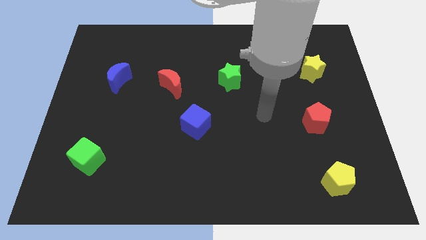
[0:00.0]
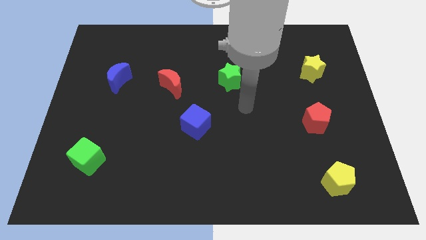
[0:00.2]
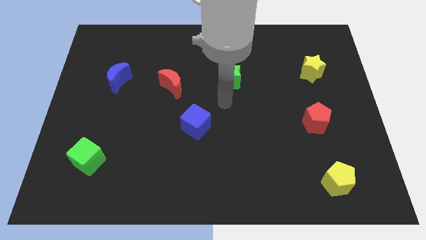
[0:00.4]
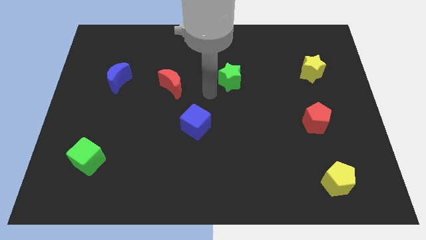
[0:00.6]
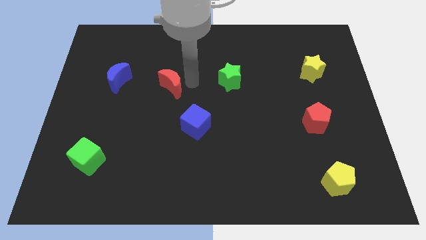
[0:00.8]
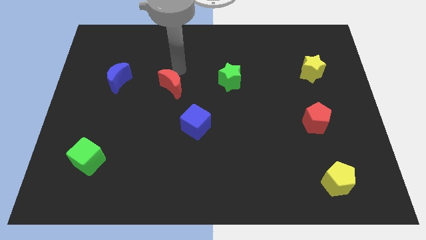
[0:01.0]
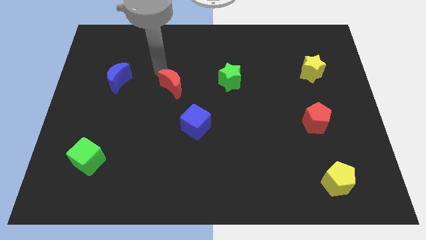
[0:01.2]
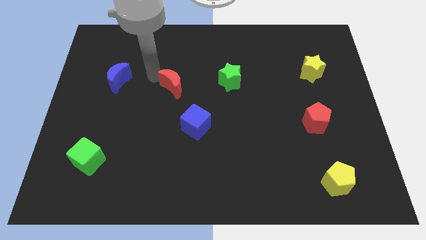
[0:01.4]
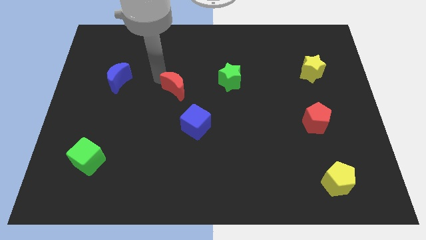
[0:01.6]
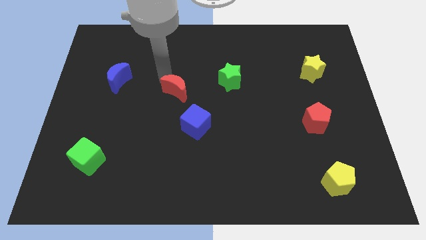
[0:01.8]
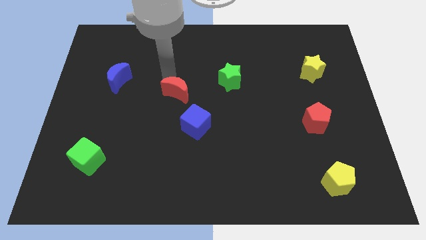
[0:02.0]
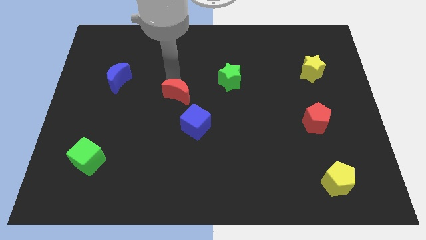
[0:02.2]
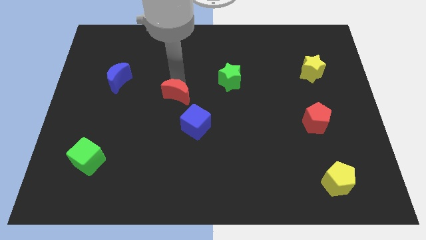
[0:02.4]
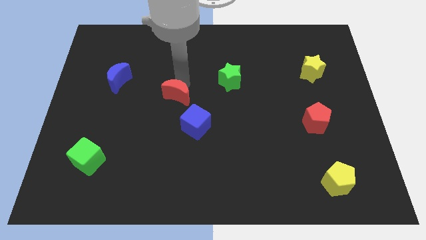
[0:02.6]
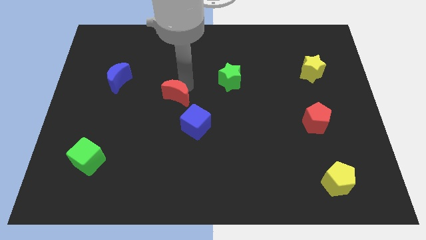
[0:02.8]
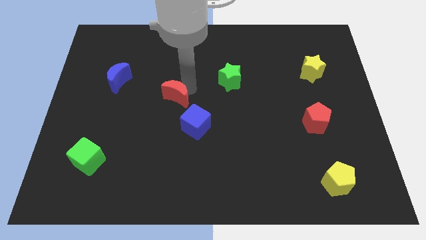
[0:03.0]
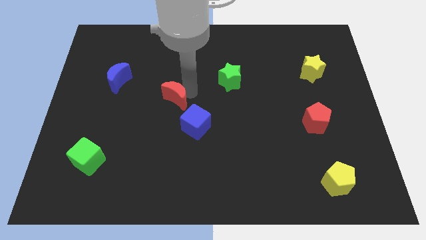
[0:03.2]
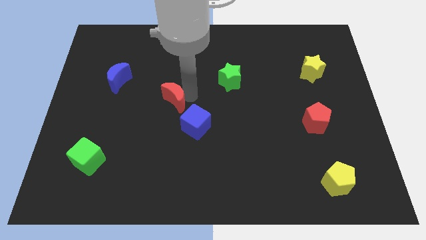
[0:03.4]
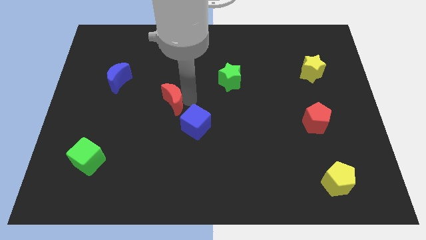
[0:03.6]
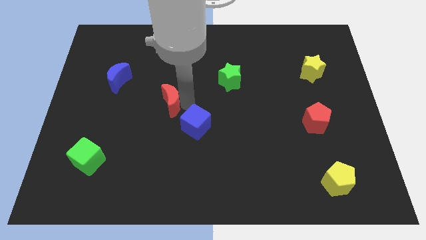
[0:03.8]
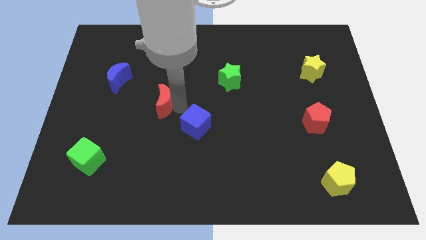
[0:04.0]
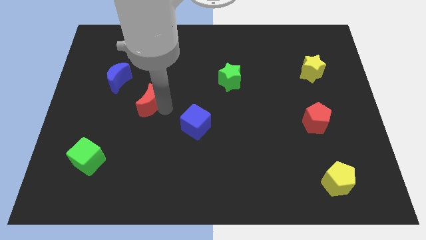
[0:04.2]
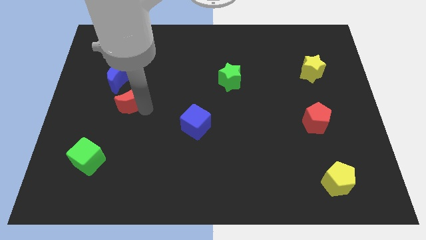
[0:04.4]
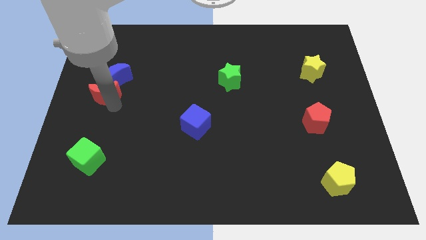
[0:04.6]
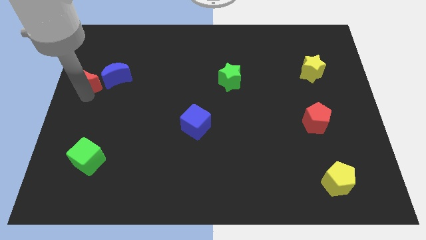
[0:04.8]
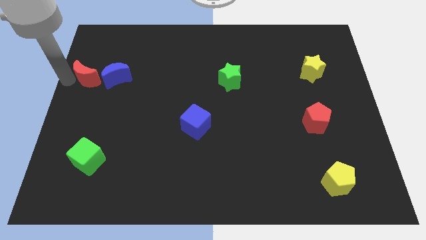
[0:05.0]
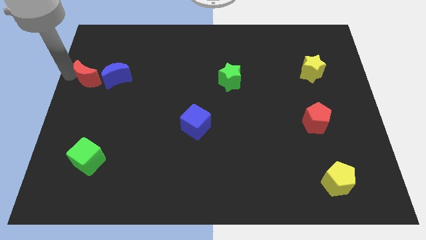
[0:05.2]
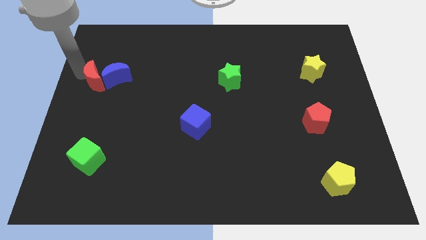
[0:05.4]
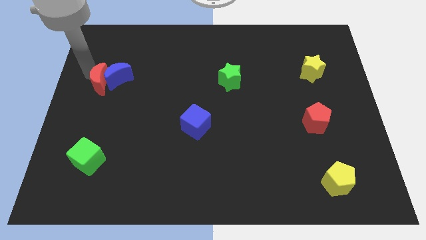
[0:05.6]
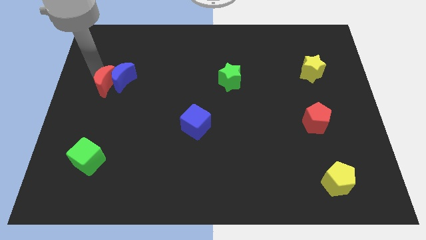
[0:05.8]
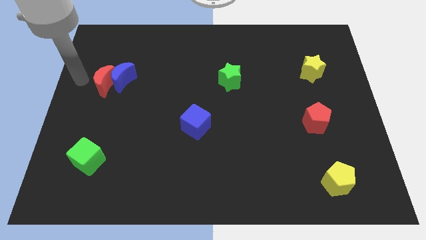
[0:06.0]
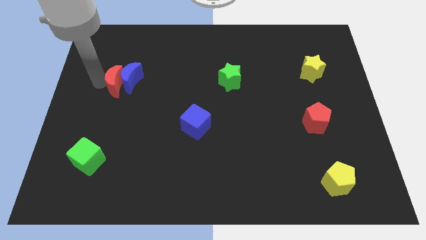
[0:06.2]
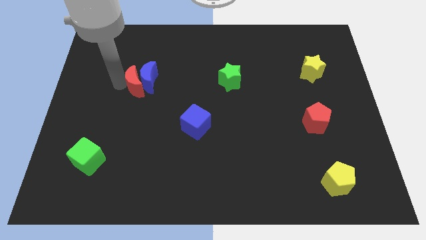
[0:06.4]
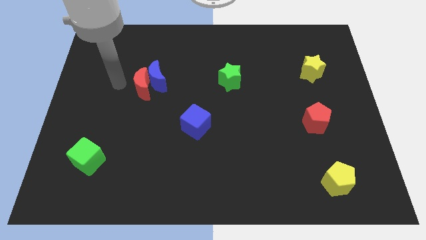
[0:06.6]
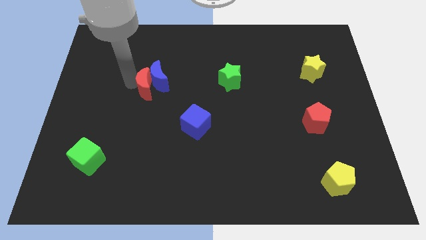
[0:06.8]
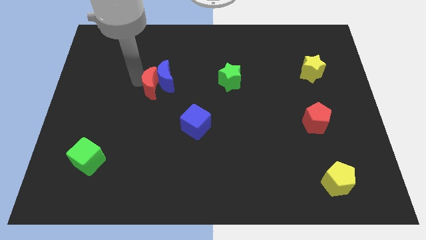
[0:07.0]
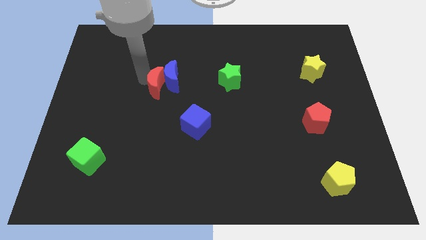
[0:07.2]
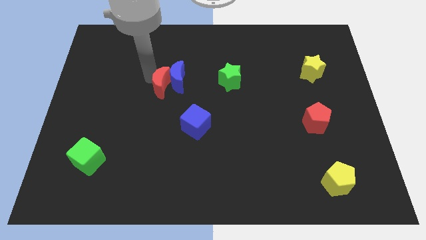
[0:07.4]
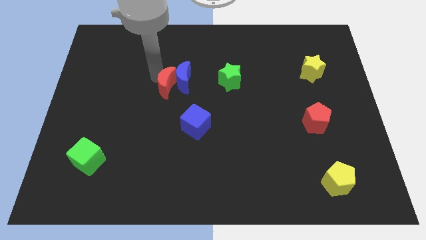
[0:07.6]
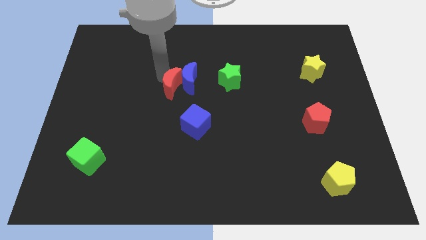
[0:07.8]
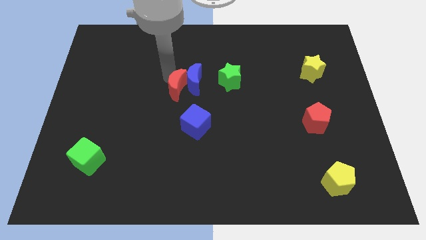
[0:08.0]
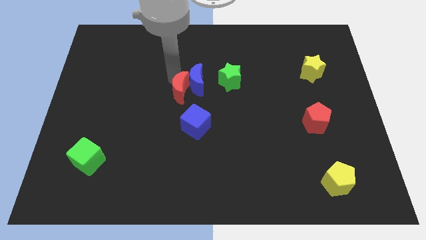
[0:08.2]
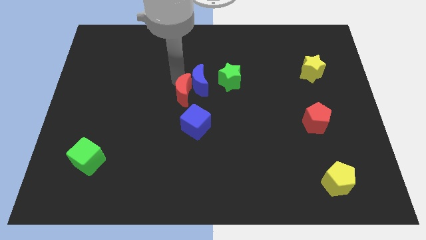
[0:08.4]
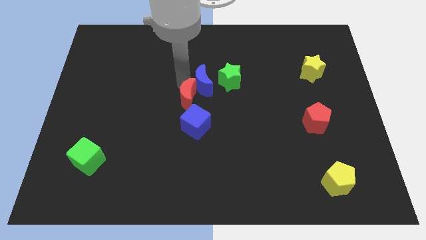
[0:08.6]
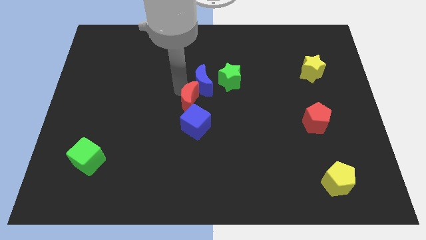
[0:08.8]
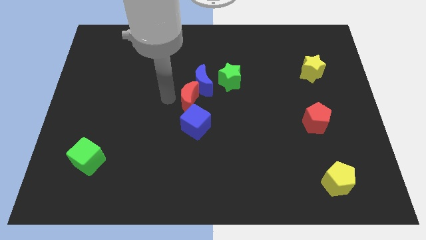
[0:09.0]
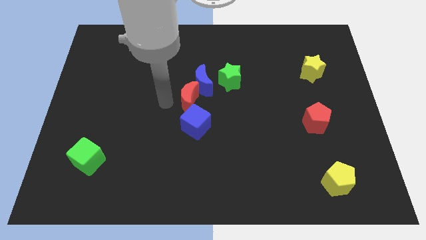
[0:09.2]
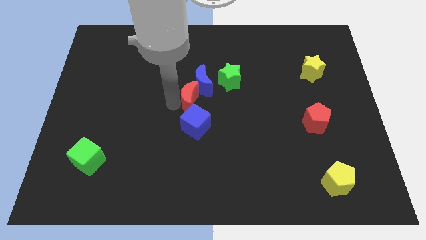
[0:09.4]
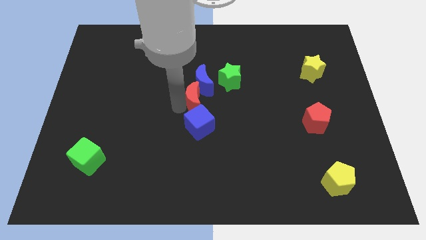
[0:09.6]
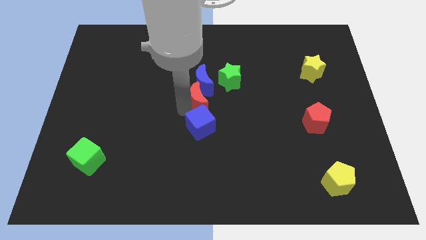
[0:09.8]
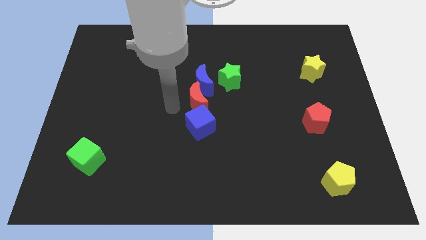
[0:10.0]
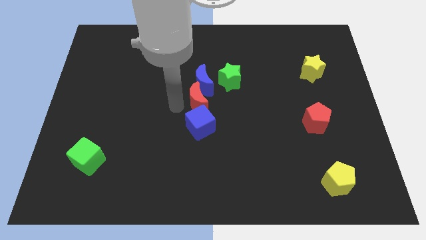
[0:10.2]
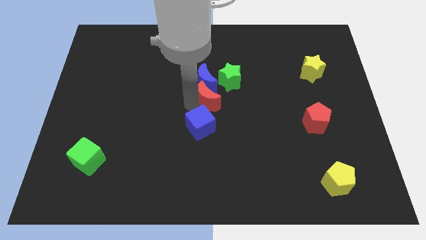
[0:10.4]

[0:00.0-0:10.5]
slightly push the red moon to the right

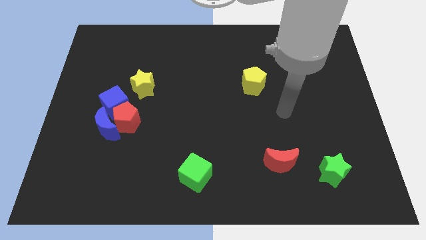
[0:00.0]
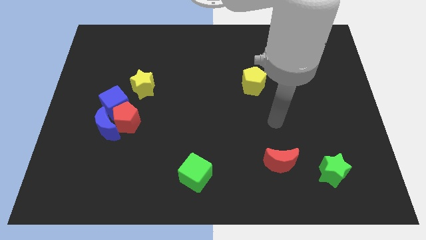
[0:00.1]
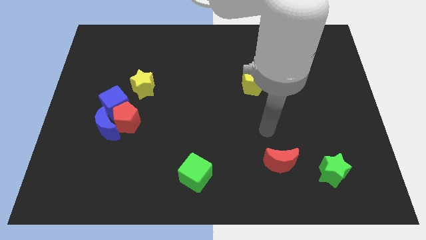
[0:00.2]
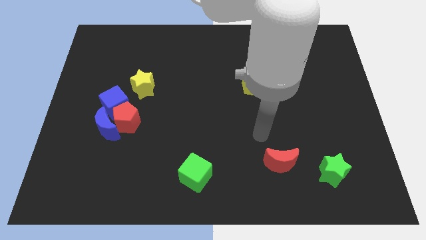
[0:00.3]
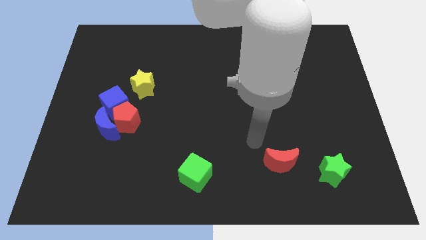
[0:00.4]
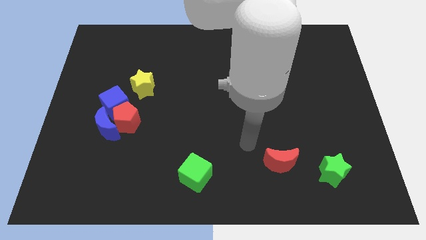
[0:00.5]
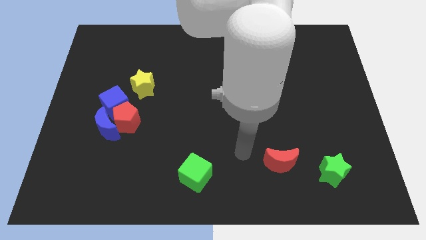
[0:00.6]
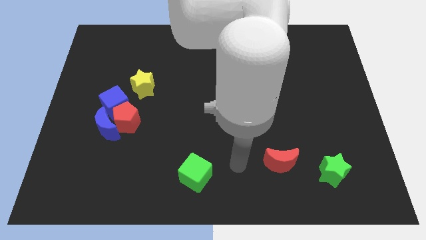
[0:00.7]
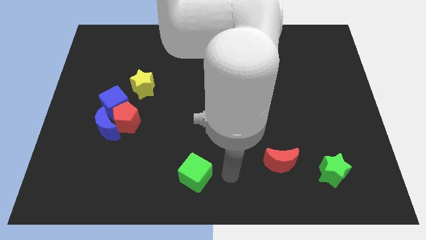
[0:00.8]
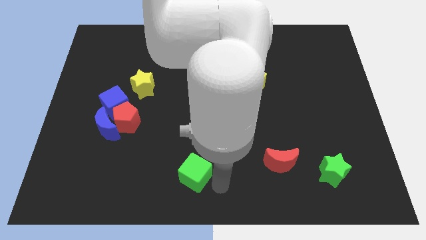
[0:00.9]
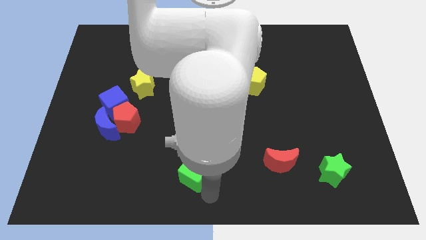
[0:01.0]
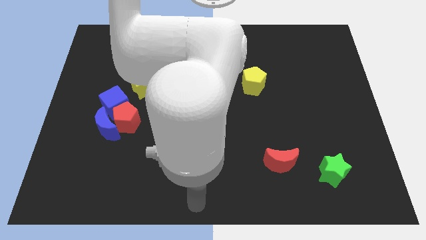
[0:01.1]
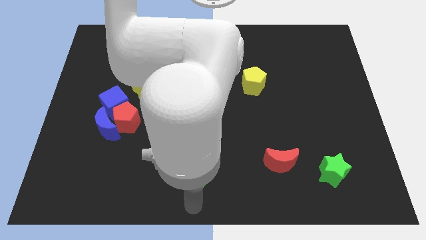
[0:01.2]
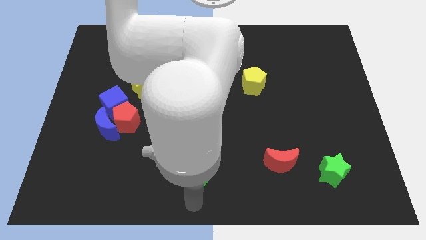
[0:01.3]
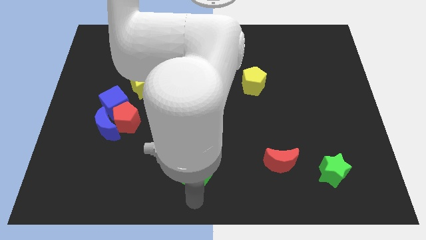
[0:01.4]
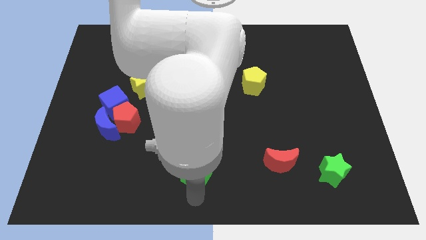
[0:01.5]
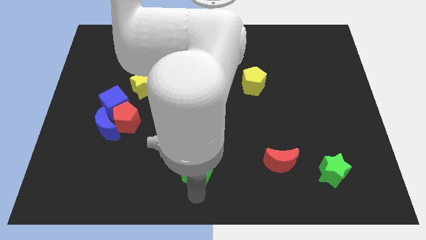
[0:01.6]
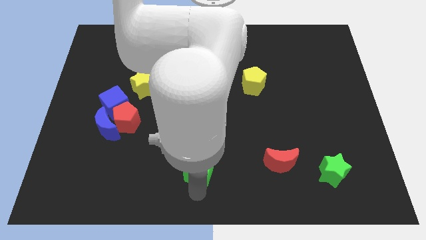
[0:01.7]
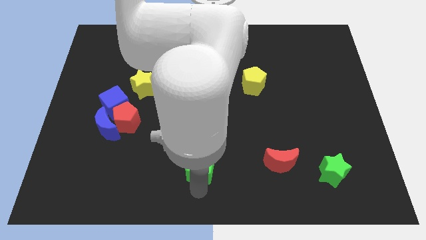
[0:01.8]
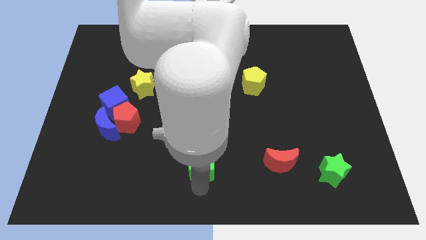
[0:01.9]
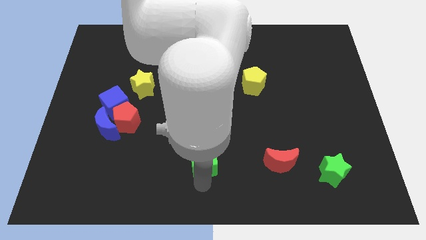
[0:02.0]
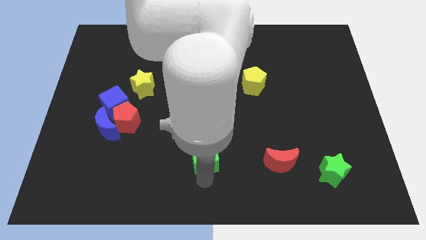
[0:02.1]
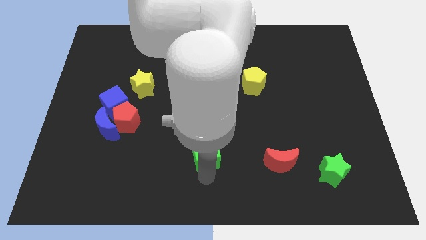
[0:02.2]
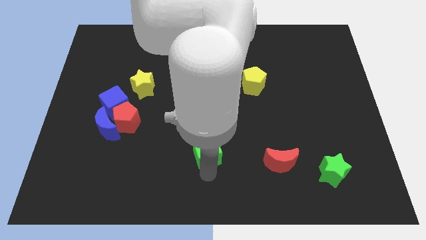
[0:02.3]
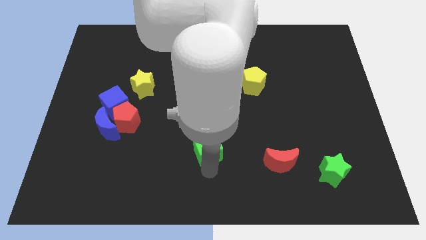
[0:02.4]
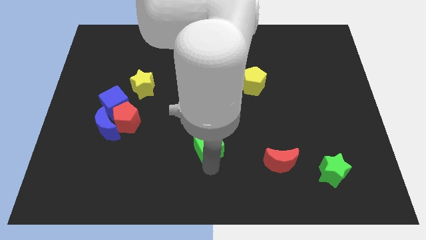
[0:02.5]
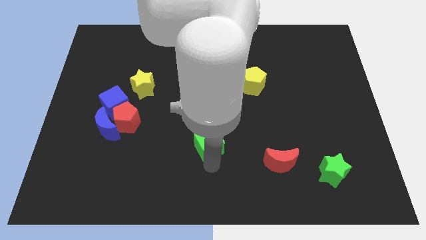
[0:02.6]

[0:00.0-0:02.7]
move the green cube upwards somewhat

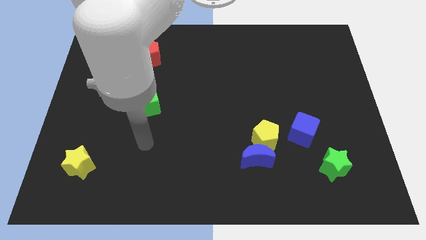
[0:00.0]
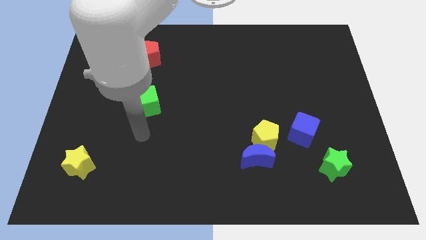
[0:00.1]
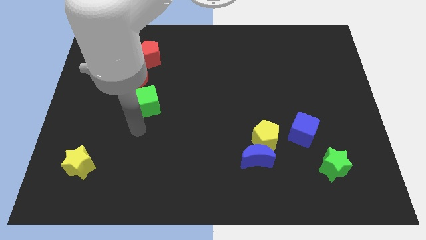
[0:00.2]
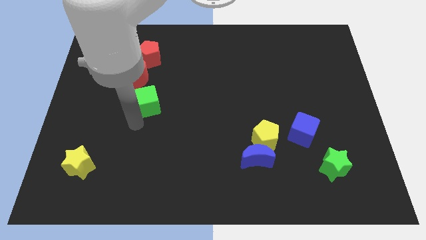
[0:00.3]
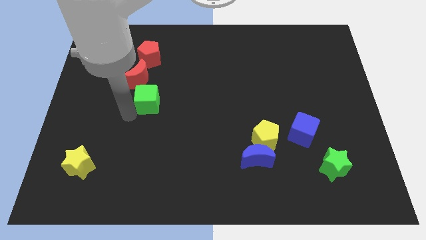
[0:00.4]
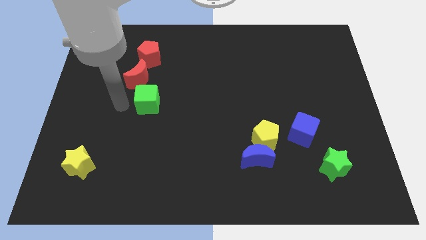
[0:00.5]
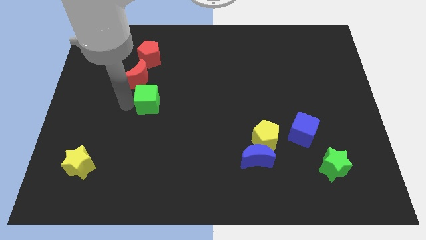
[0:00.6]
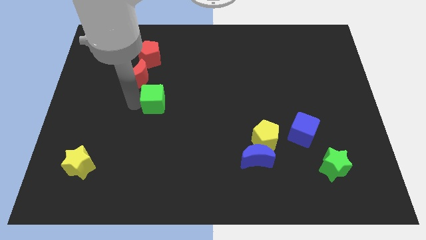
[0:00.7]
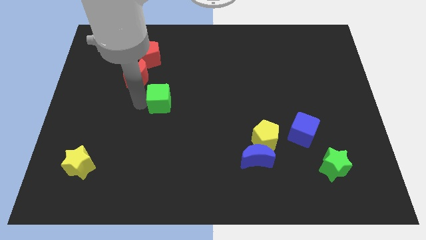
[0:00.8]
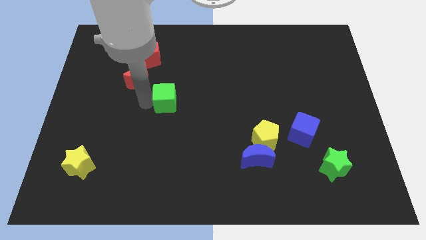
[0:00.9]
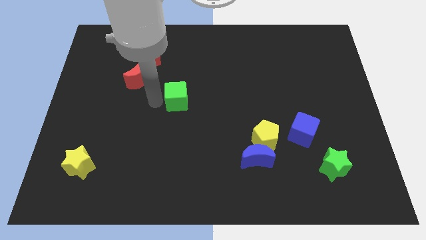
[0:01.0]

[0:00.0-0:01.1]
move the green cube to the right a little
